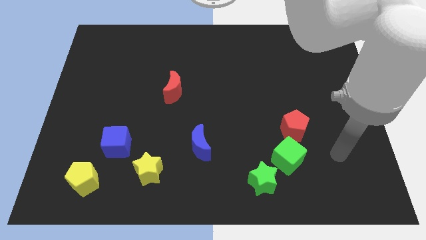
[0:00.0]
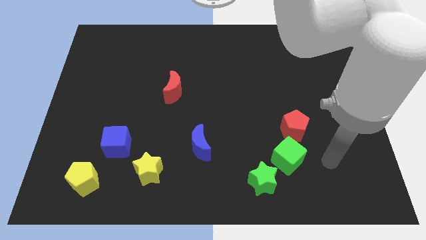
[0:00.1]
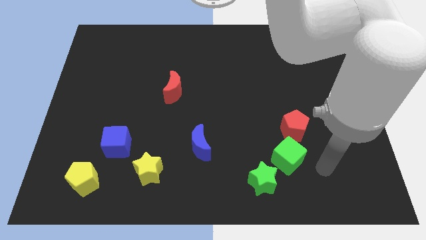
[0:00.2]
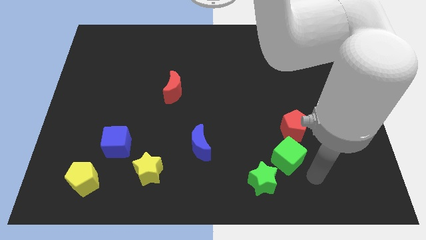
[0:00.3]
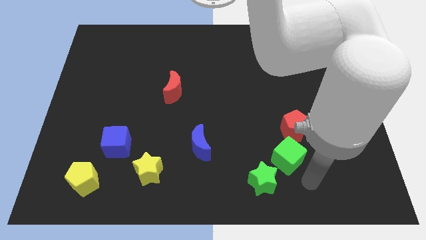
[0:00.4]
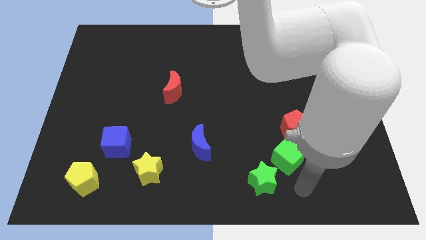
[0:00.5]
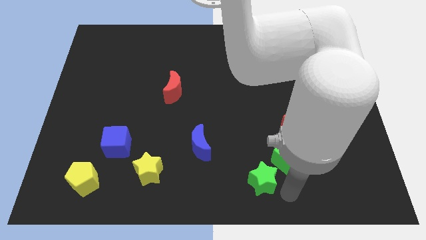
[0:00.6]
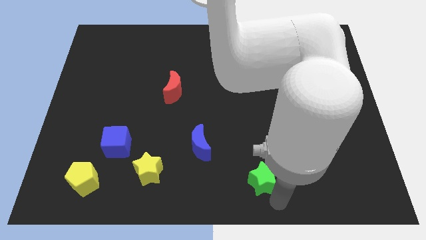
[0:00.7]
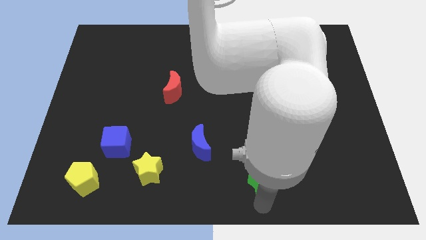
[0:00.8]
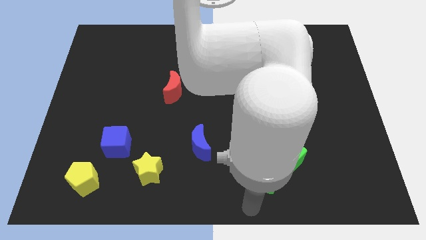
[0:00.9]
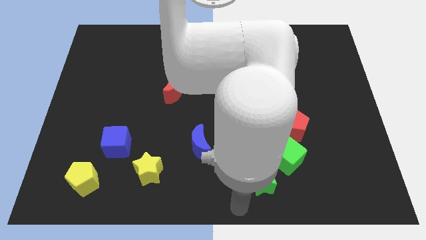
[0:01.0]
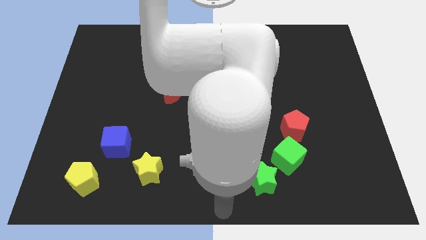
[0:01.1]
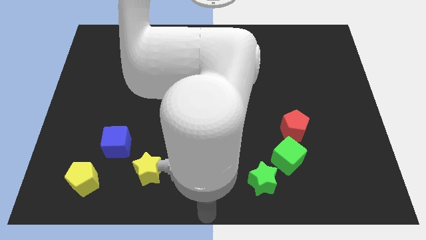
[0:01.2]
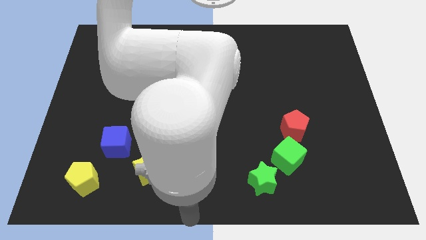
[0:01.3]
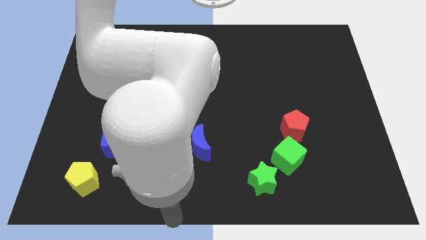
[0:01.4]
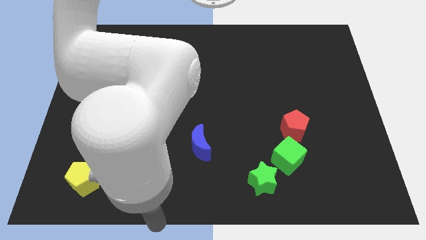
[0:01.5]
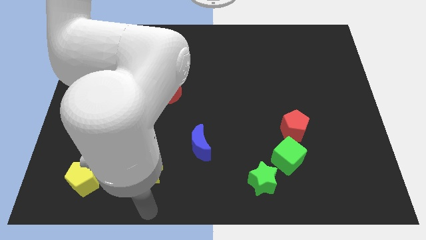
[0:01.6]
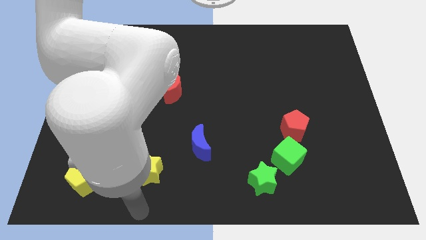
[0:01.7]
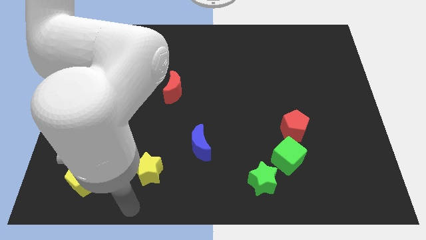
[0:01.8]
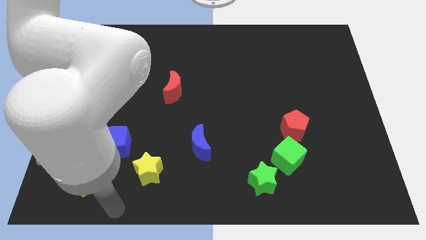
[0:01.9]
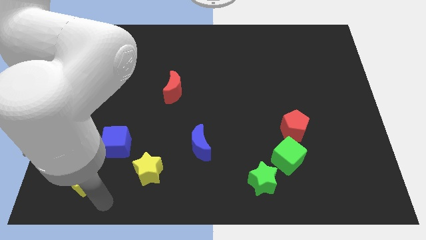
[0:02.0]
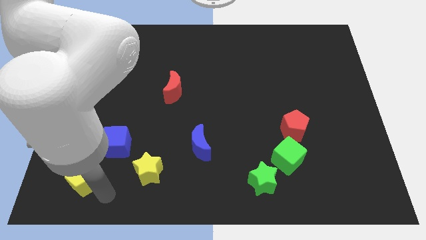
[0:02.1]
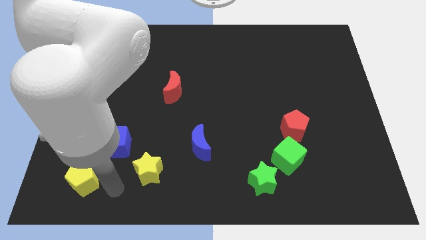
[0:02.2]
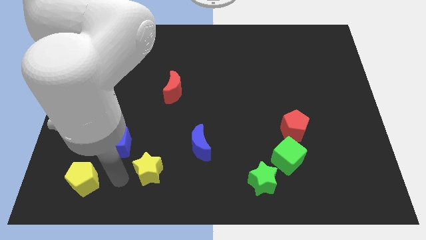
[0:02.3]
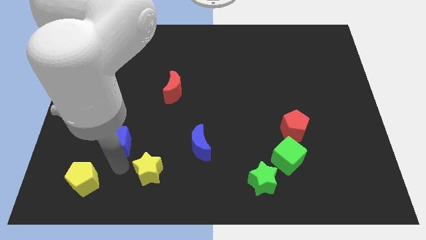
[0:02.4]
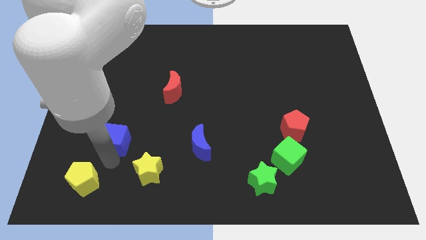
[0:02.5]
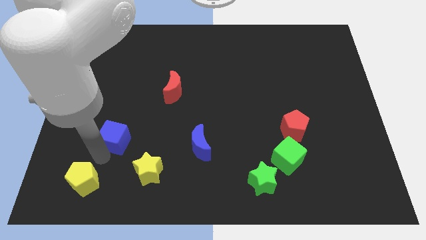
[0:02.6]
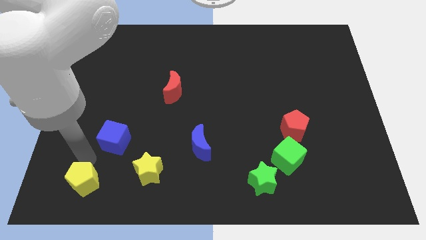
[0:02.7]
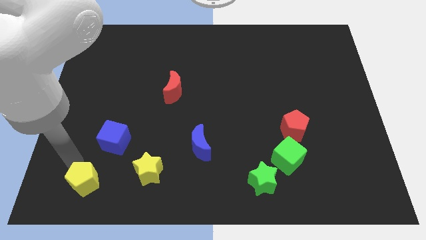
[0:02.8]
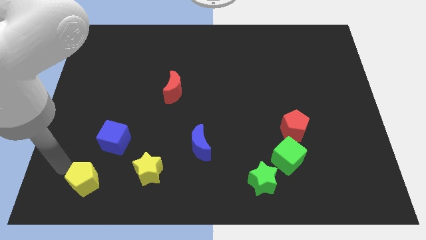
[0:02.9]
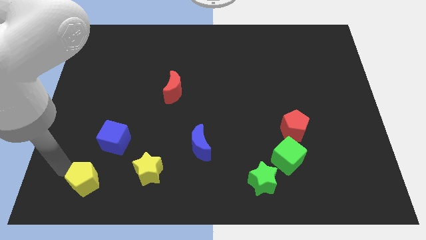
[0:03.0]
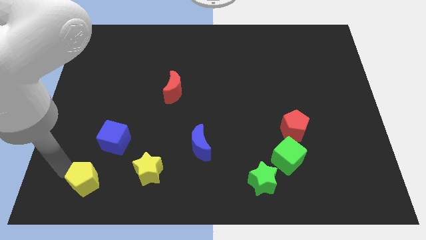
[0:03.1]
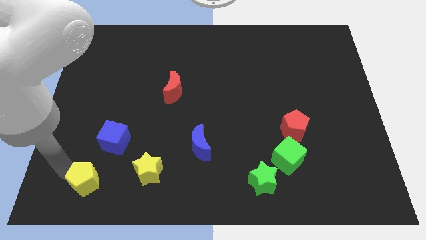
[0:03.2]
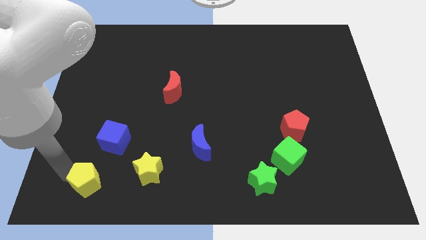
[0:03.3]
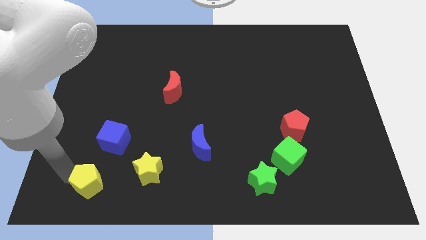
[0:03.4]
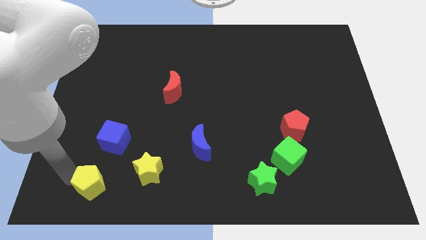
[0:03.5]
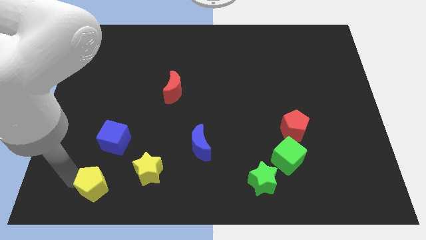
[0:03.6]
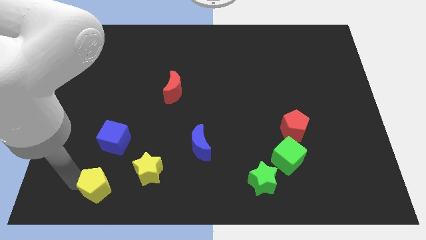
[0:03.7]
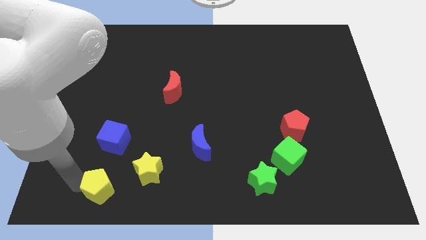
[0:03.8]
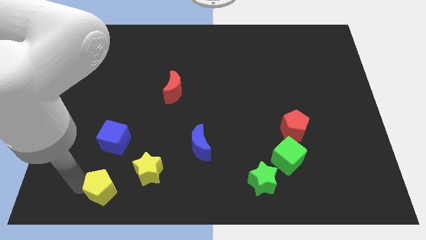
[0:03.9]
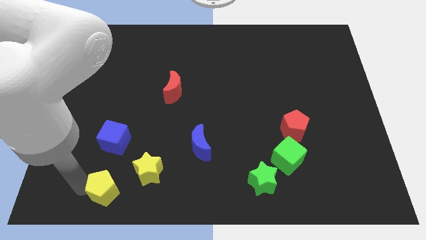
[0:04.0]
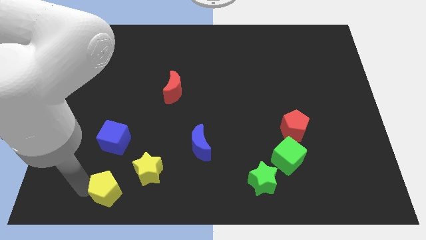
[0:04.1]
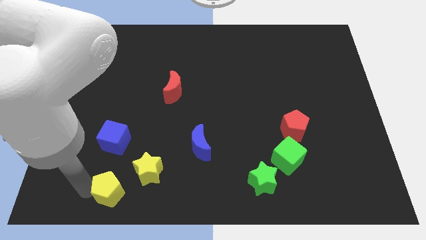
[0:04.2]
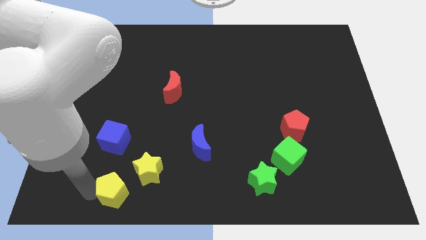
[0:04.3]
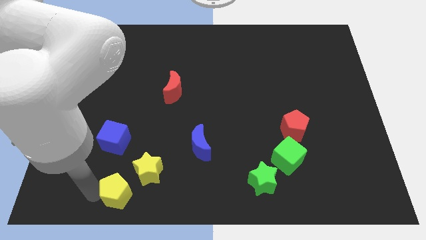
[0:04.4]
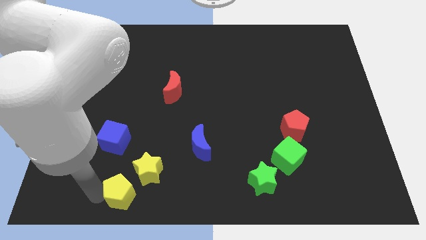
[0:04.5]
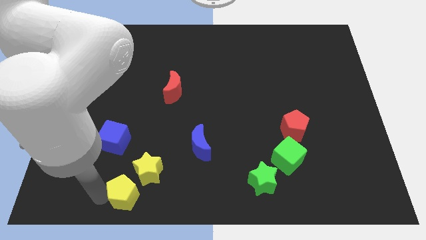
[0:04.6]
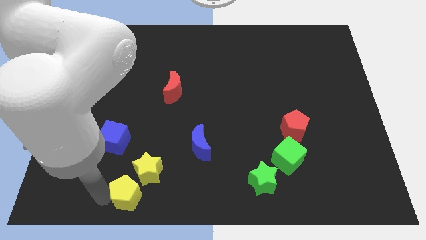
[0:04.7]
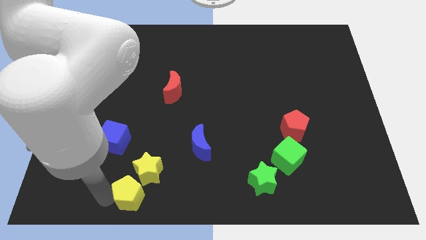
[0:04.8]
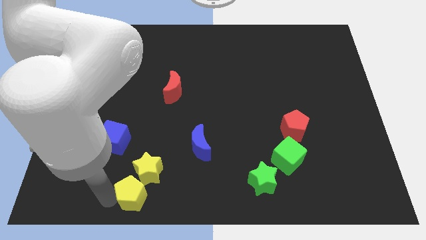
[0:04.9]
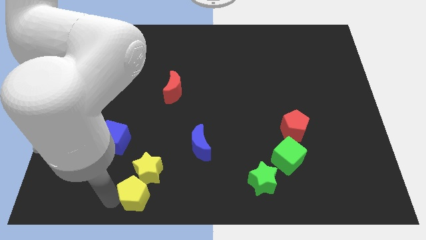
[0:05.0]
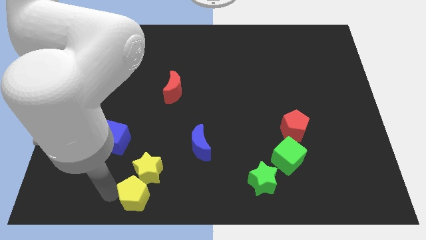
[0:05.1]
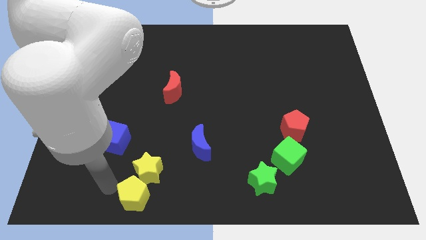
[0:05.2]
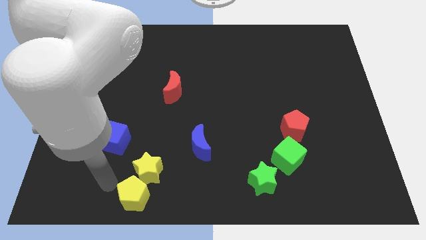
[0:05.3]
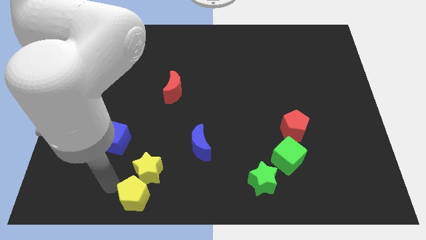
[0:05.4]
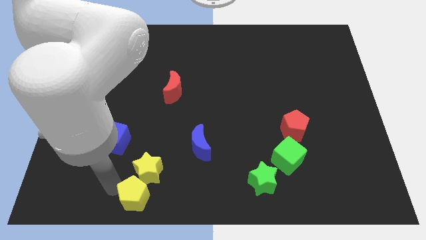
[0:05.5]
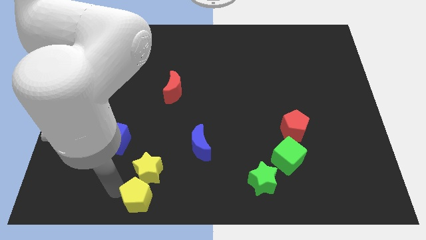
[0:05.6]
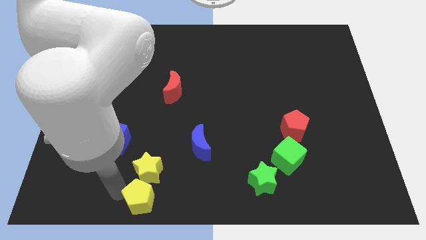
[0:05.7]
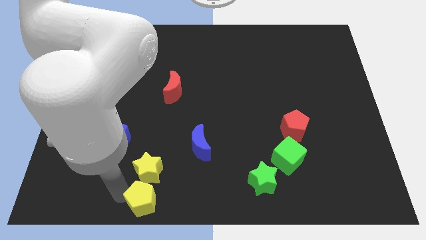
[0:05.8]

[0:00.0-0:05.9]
slide the yellow pentagon to the bottom side
